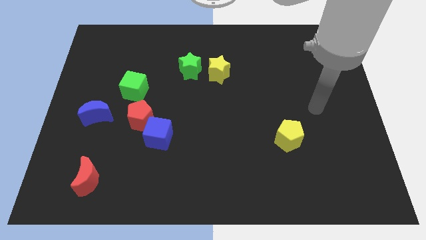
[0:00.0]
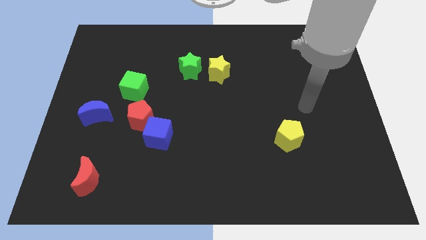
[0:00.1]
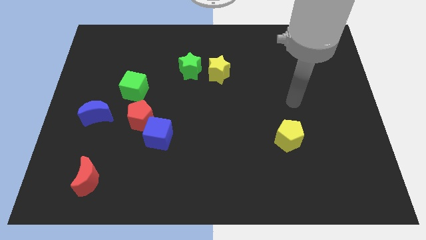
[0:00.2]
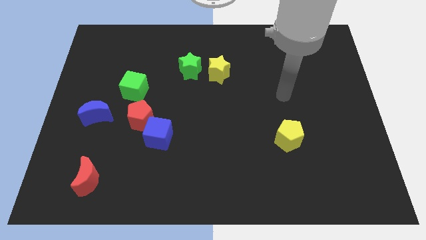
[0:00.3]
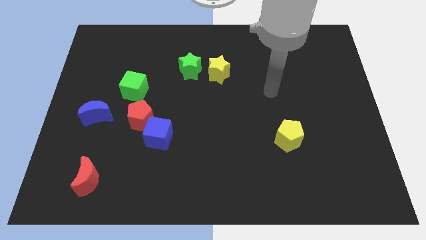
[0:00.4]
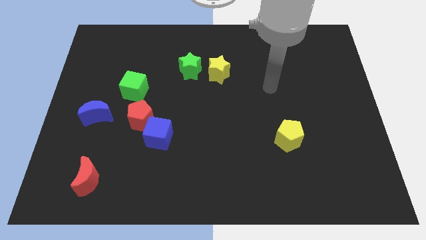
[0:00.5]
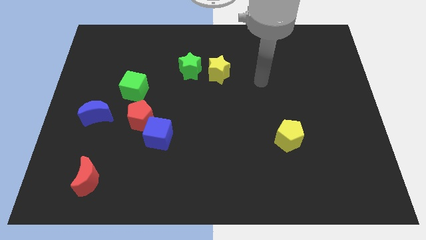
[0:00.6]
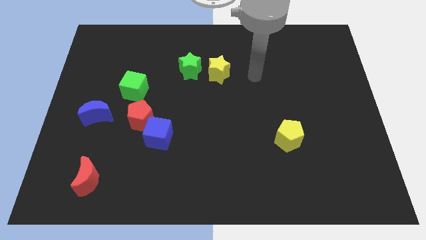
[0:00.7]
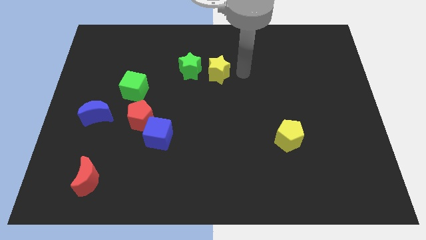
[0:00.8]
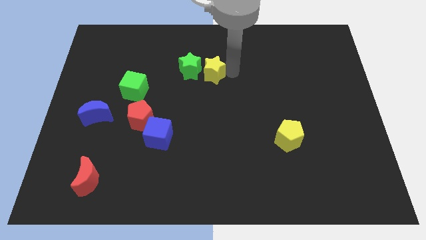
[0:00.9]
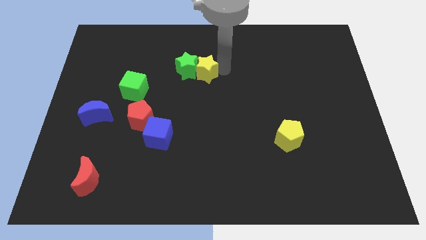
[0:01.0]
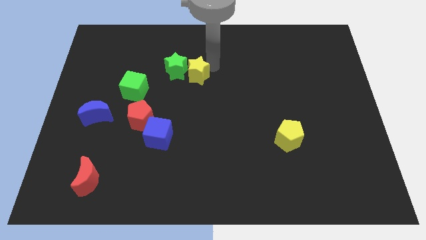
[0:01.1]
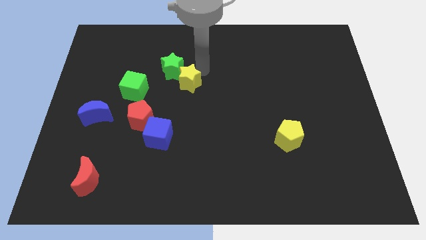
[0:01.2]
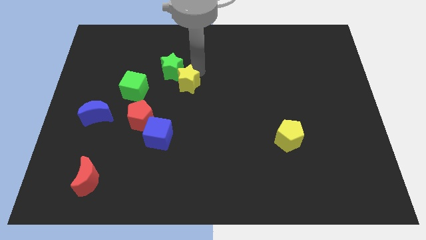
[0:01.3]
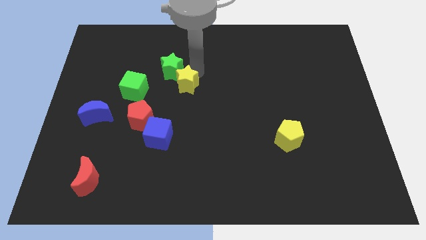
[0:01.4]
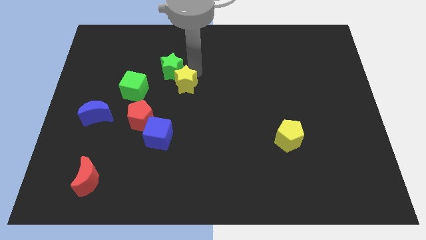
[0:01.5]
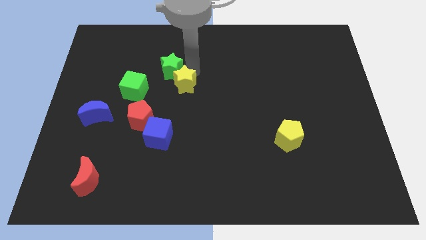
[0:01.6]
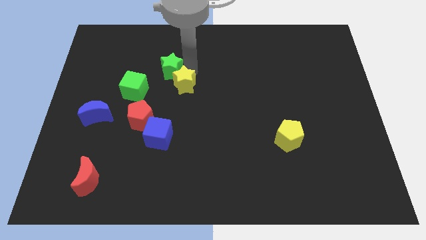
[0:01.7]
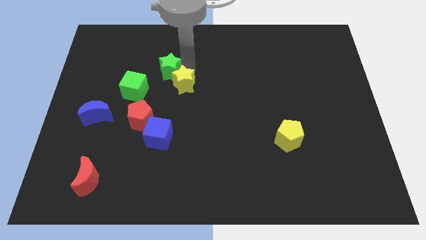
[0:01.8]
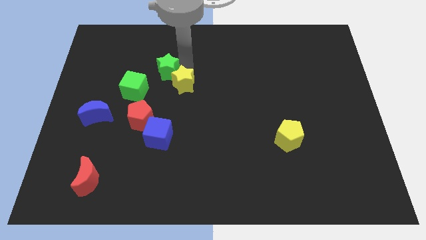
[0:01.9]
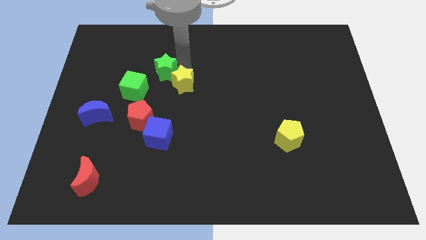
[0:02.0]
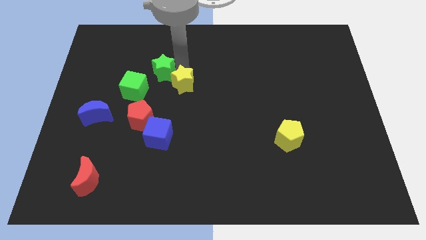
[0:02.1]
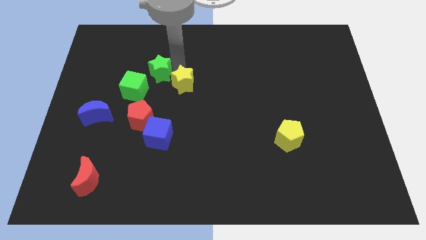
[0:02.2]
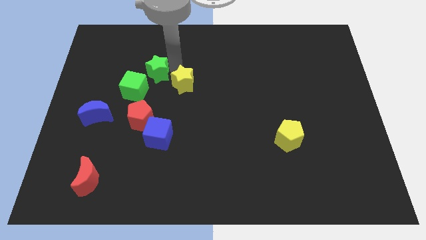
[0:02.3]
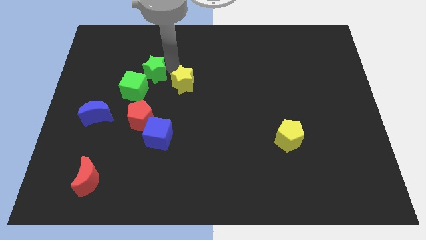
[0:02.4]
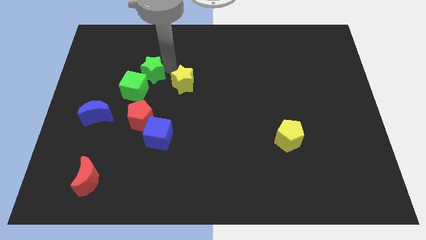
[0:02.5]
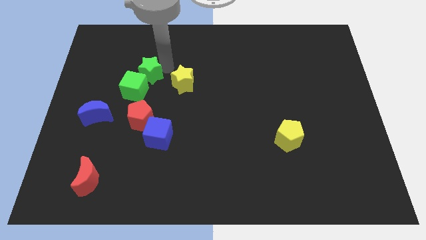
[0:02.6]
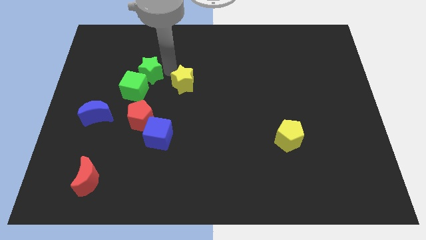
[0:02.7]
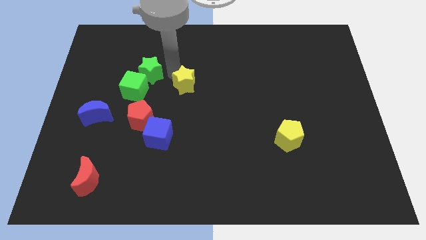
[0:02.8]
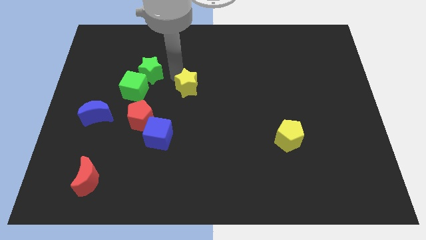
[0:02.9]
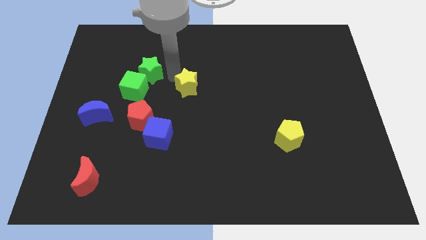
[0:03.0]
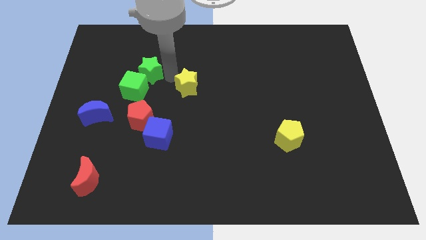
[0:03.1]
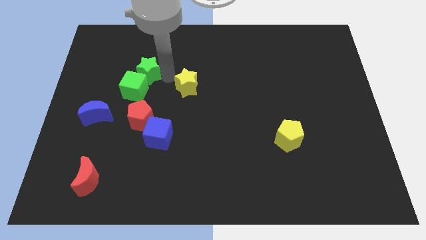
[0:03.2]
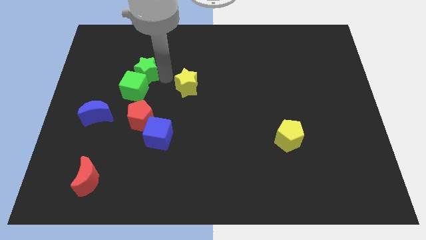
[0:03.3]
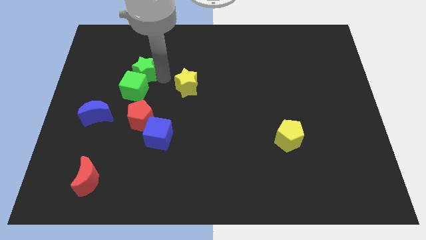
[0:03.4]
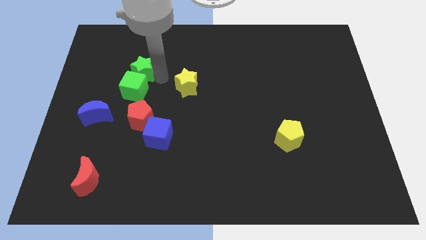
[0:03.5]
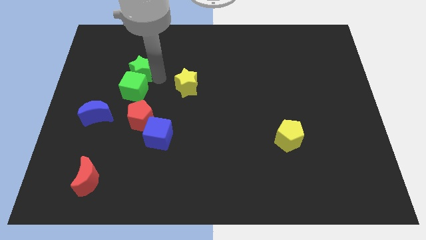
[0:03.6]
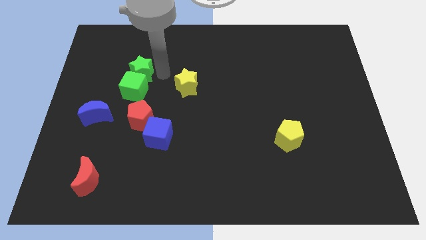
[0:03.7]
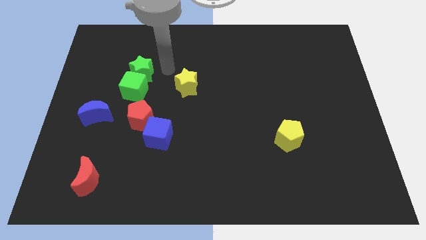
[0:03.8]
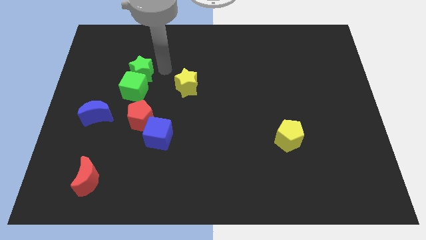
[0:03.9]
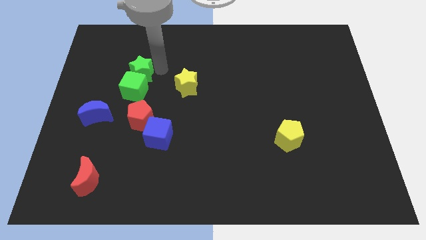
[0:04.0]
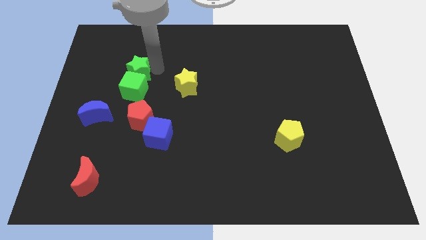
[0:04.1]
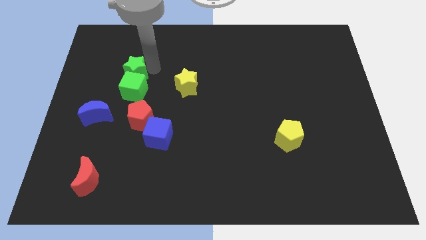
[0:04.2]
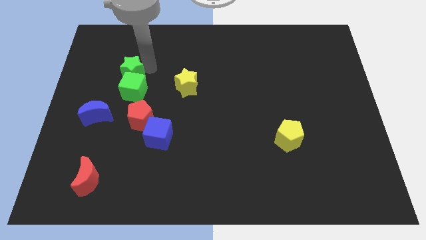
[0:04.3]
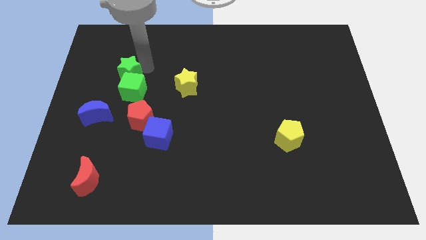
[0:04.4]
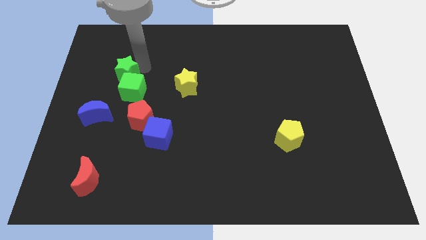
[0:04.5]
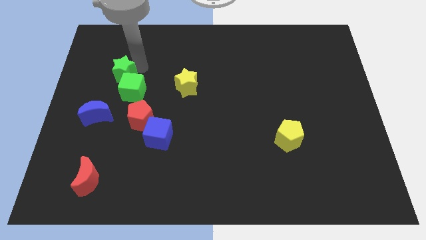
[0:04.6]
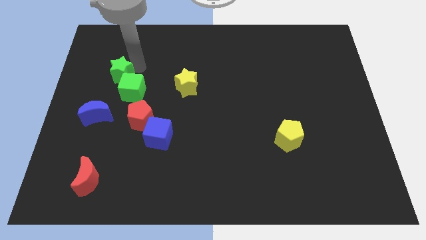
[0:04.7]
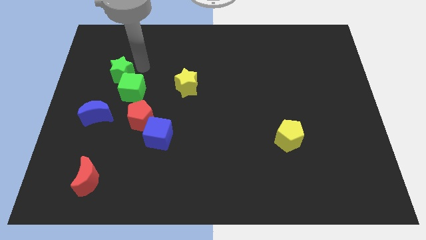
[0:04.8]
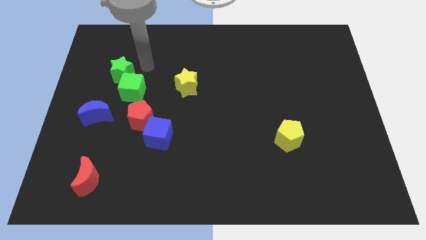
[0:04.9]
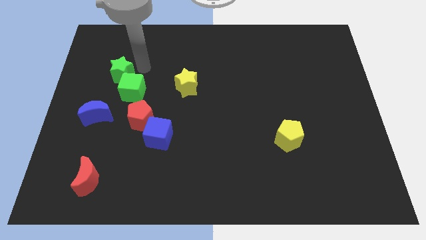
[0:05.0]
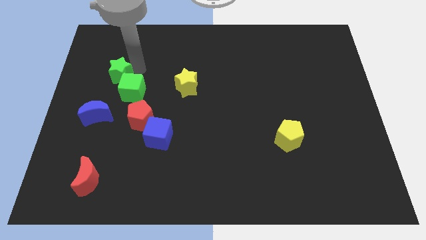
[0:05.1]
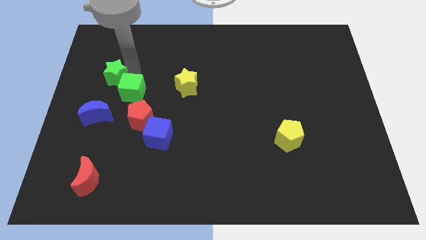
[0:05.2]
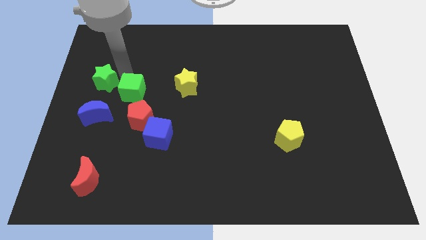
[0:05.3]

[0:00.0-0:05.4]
move the green star to the left side of the board
